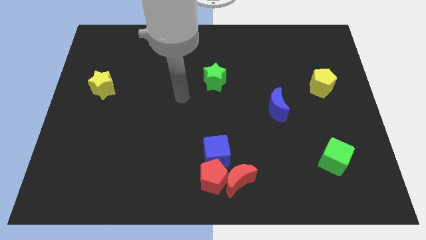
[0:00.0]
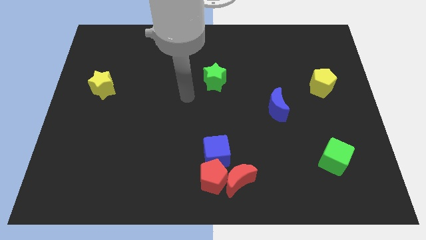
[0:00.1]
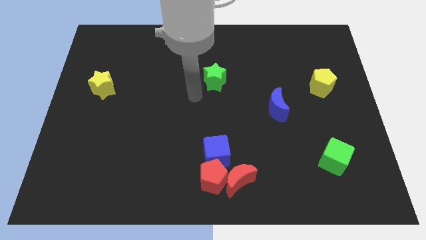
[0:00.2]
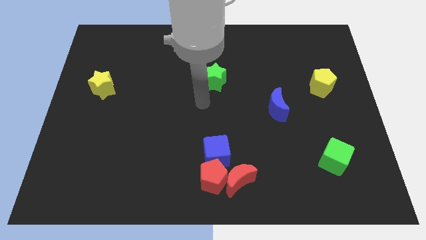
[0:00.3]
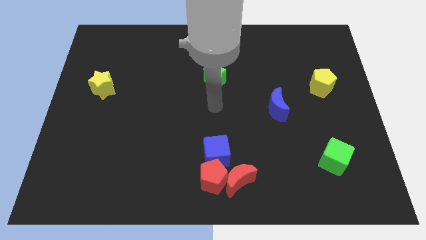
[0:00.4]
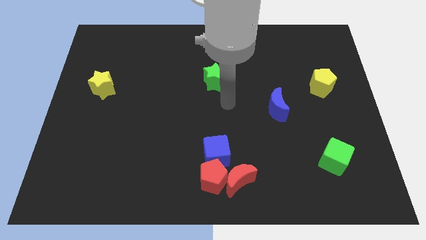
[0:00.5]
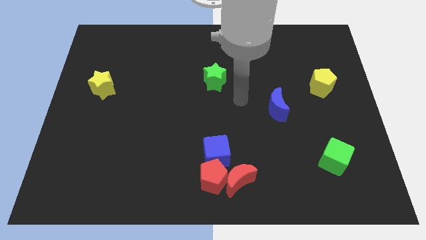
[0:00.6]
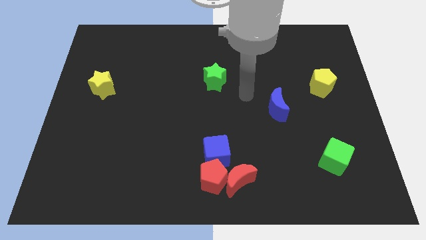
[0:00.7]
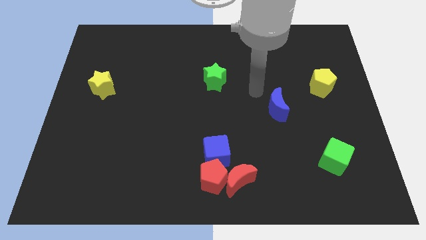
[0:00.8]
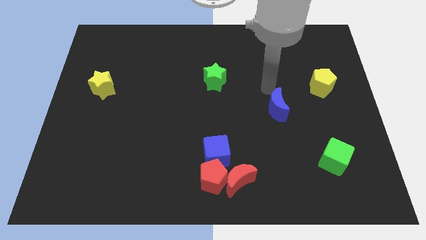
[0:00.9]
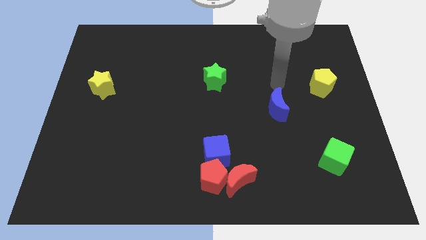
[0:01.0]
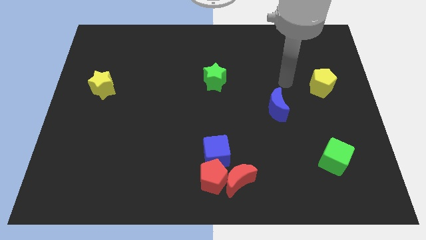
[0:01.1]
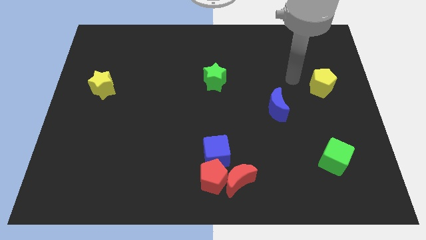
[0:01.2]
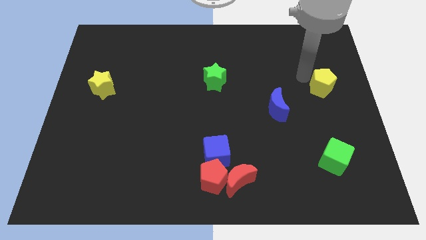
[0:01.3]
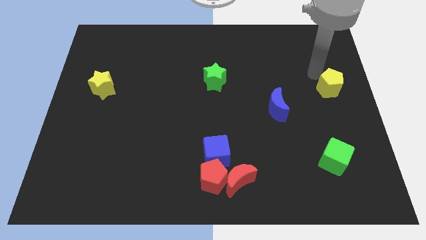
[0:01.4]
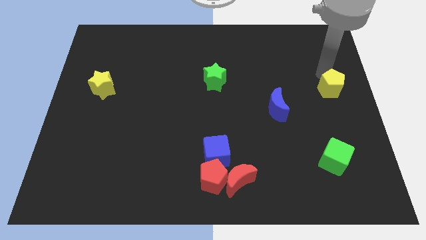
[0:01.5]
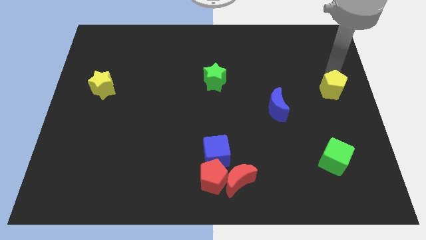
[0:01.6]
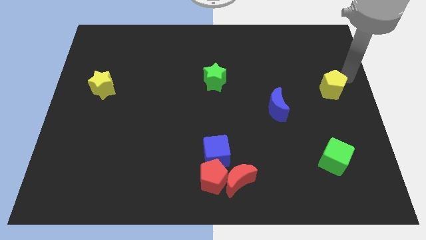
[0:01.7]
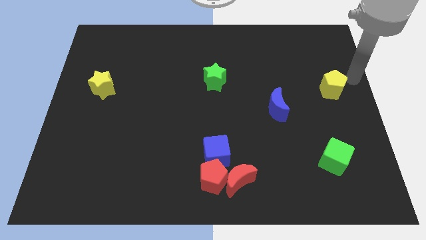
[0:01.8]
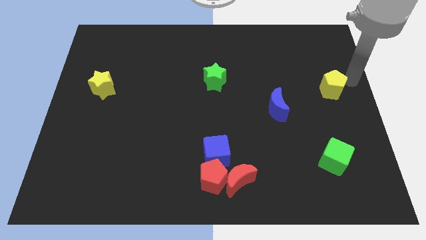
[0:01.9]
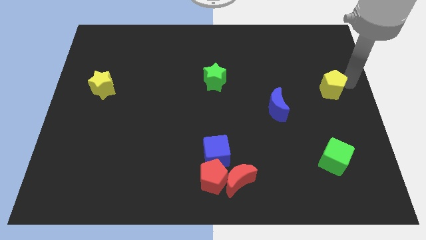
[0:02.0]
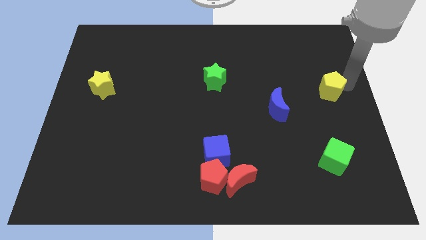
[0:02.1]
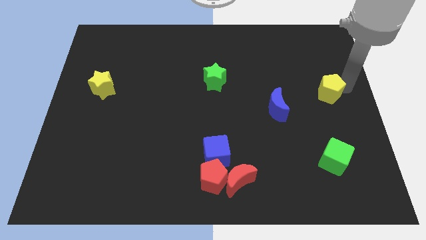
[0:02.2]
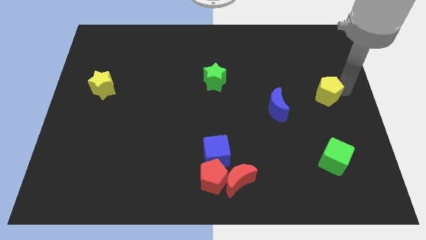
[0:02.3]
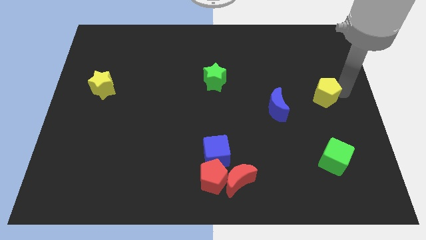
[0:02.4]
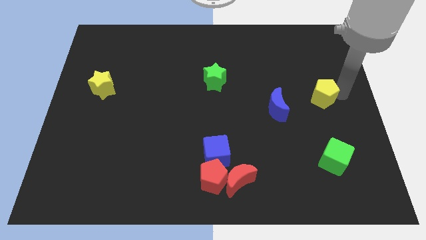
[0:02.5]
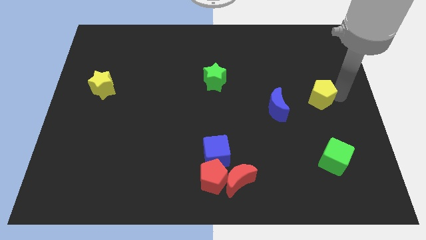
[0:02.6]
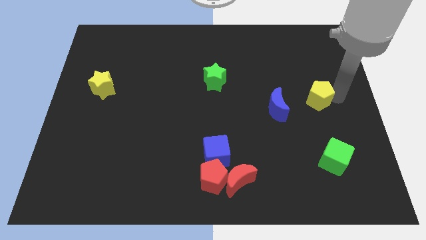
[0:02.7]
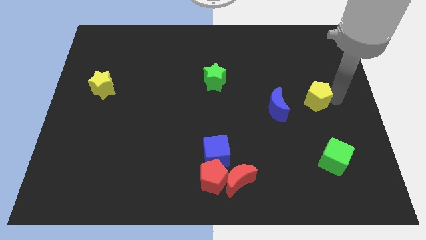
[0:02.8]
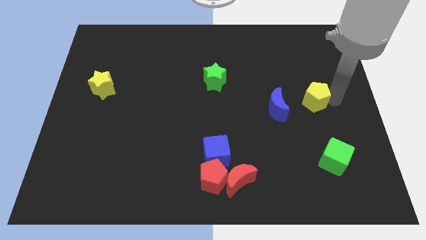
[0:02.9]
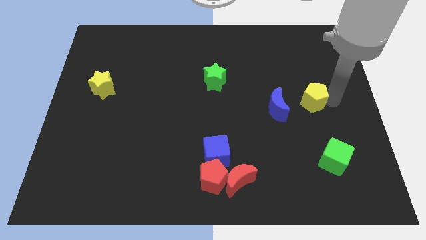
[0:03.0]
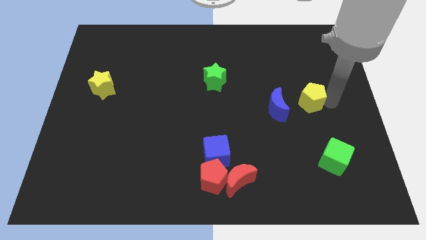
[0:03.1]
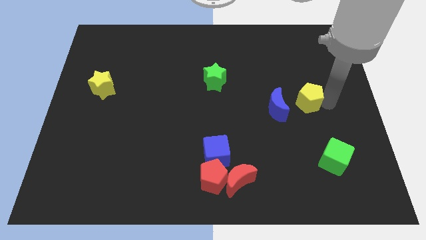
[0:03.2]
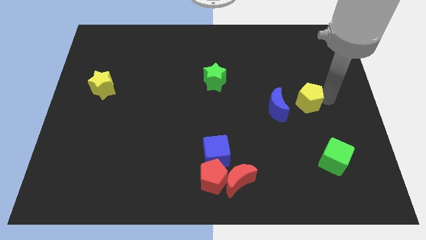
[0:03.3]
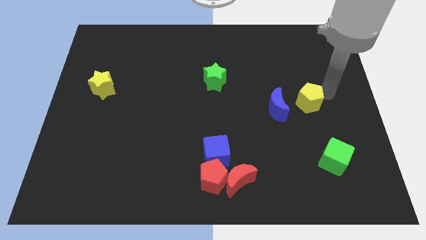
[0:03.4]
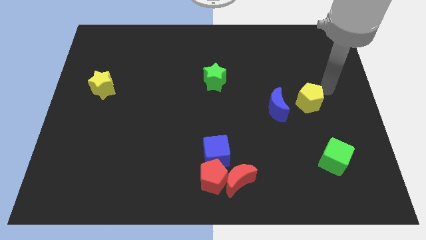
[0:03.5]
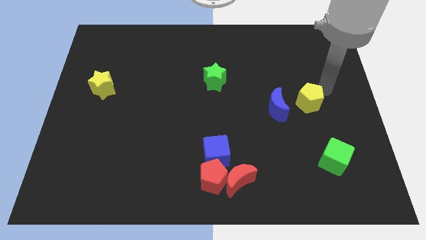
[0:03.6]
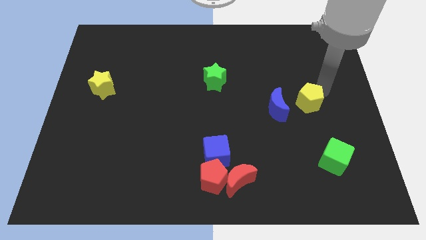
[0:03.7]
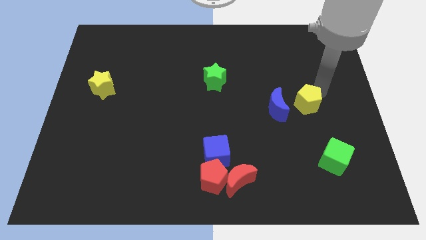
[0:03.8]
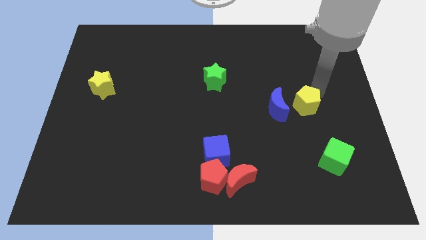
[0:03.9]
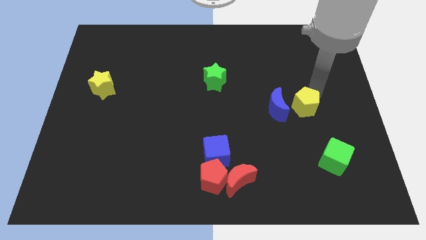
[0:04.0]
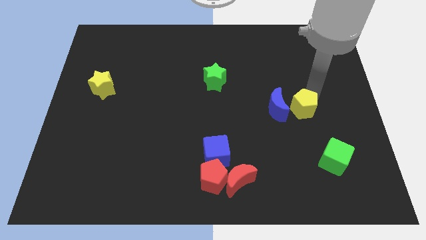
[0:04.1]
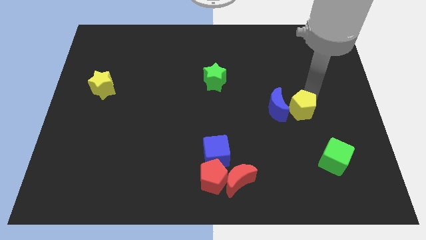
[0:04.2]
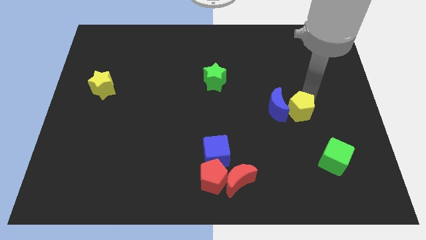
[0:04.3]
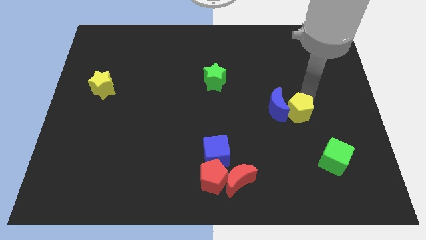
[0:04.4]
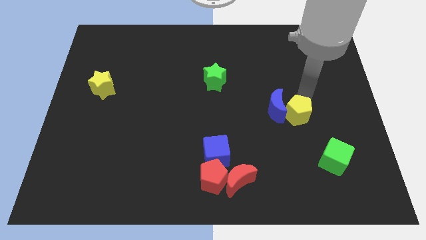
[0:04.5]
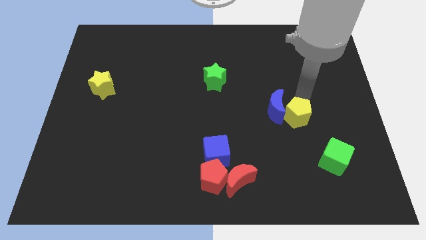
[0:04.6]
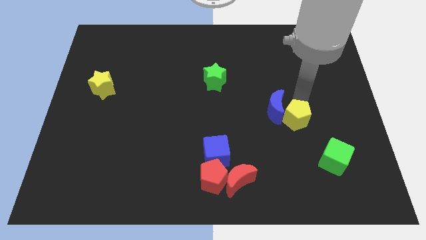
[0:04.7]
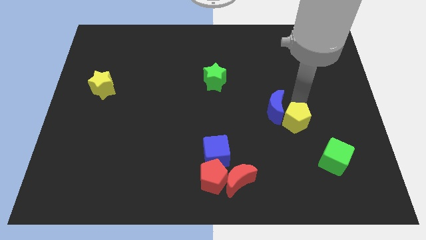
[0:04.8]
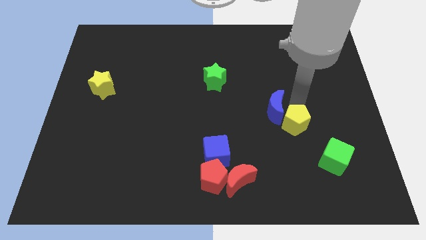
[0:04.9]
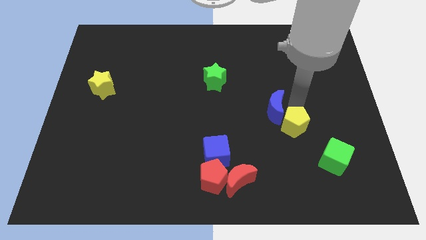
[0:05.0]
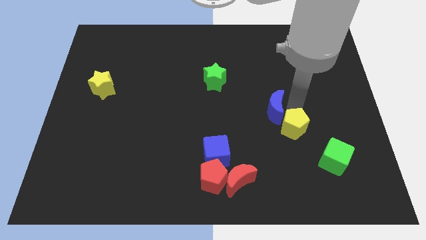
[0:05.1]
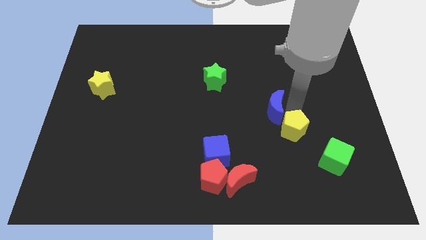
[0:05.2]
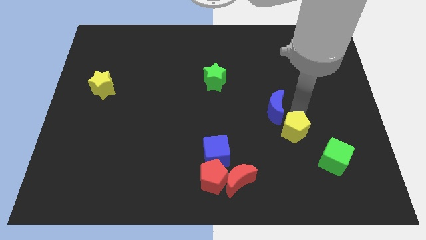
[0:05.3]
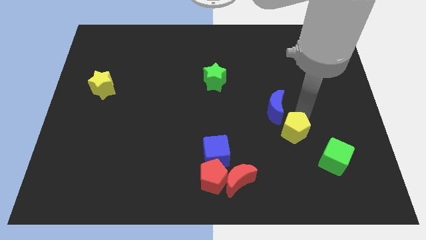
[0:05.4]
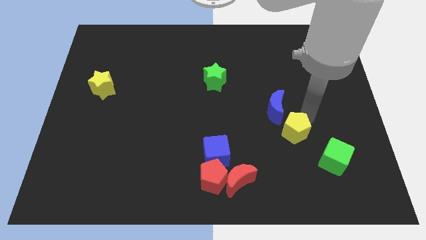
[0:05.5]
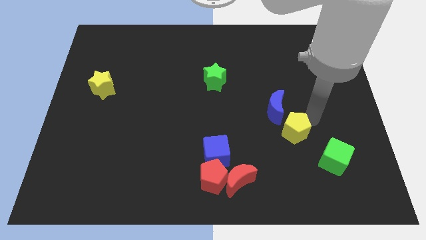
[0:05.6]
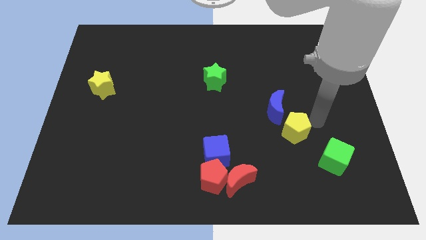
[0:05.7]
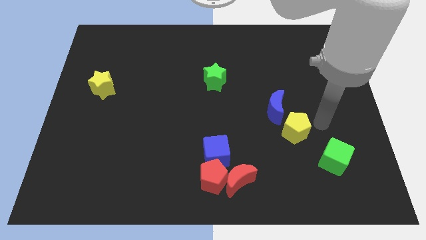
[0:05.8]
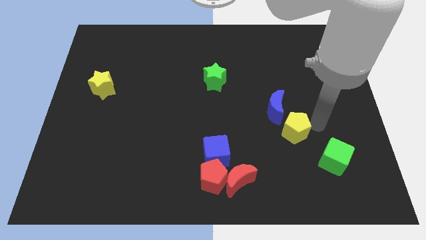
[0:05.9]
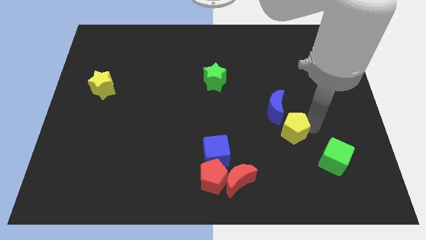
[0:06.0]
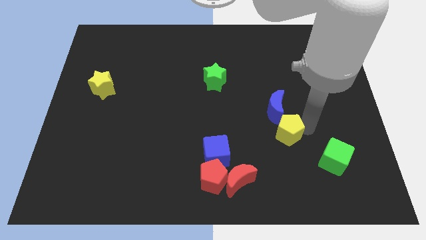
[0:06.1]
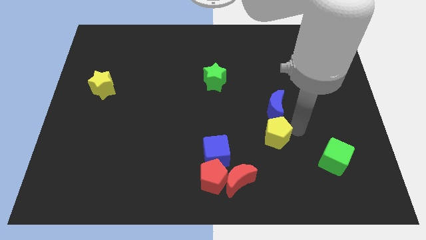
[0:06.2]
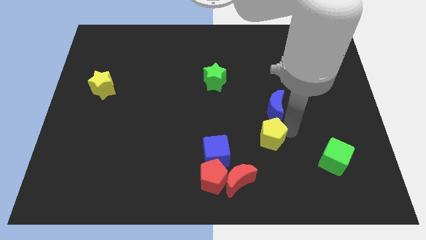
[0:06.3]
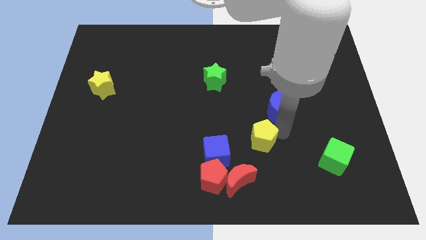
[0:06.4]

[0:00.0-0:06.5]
push the yellow pentagon to the top right side of the red moon
